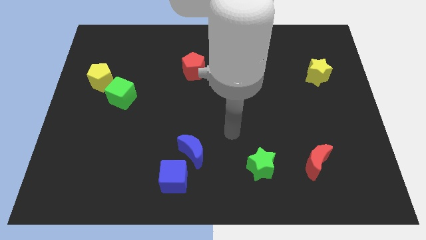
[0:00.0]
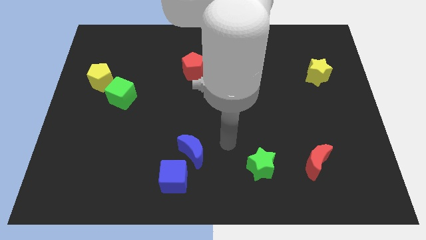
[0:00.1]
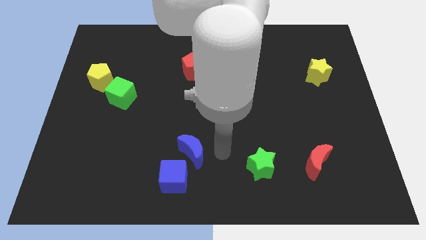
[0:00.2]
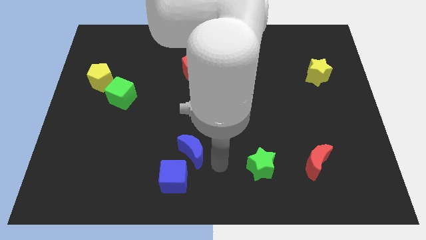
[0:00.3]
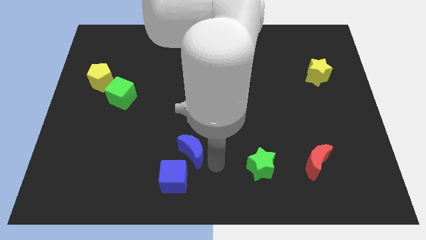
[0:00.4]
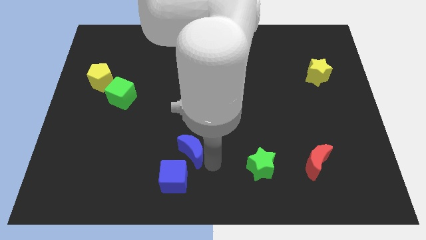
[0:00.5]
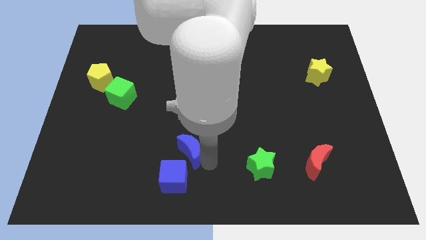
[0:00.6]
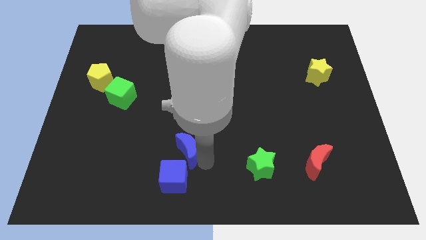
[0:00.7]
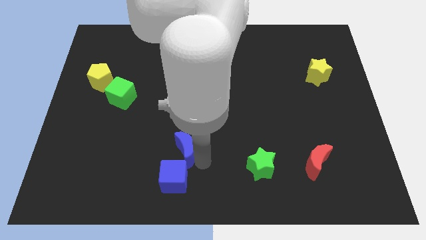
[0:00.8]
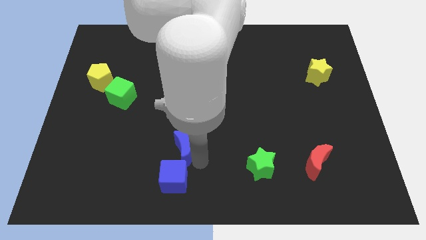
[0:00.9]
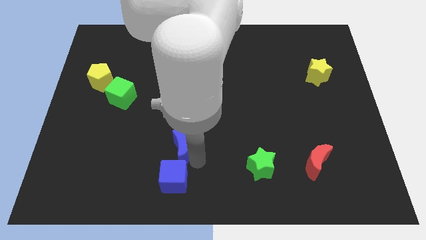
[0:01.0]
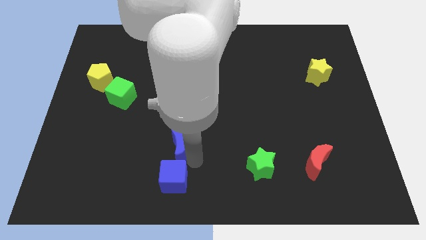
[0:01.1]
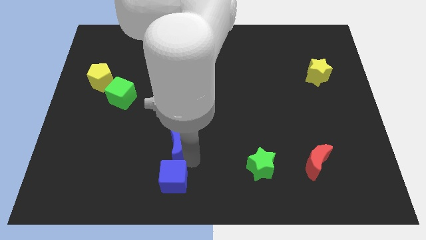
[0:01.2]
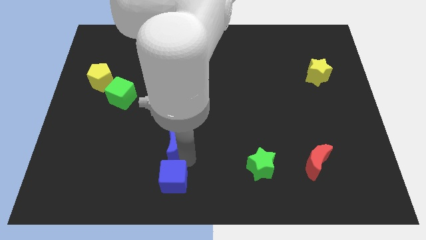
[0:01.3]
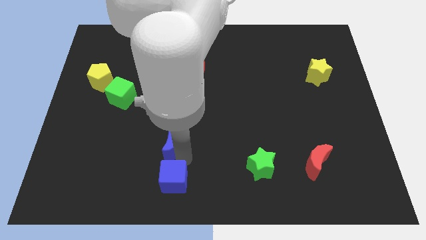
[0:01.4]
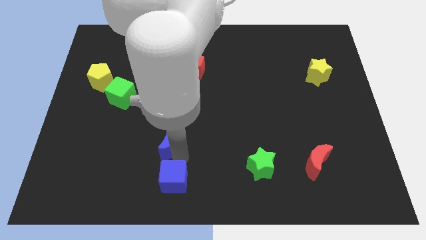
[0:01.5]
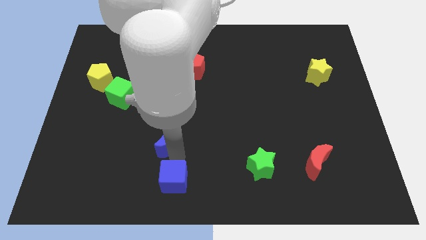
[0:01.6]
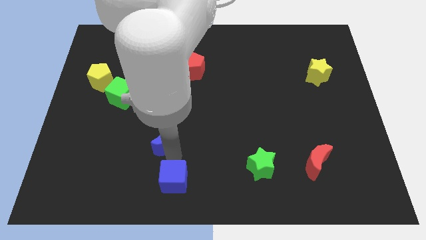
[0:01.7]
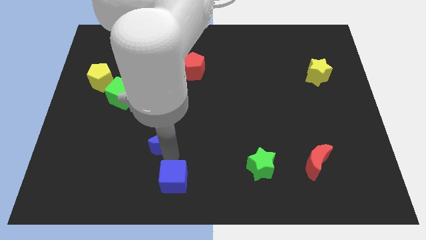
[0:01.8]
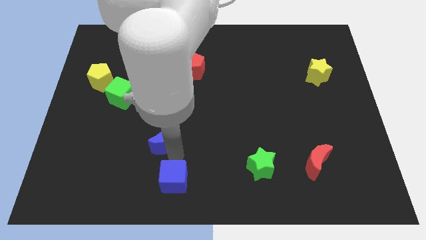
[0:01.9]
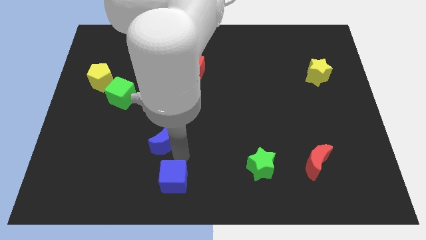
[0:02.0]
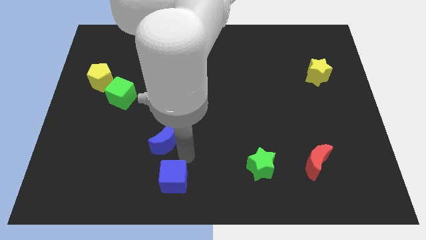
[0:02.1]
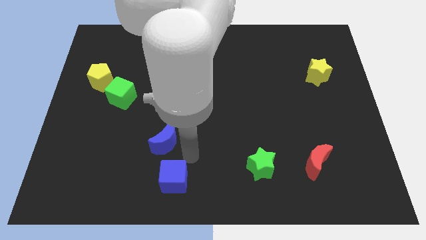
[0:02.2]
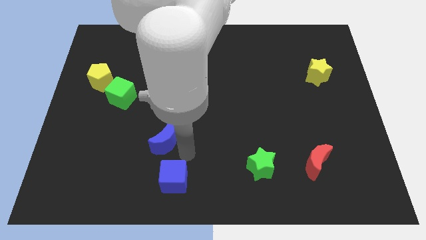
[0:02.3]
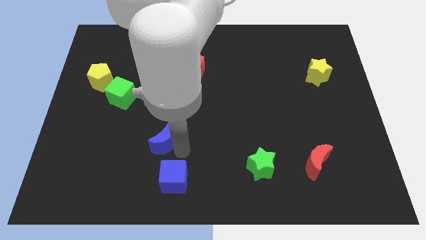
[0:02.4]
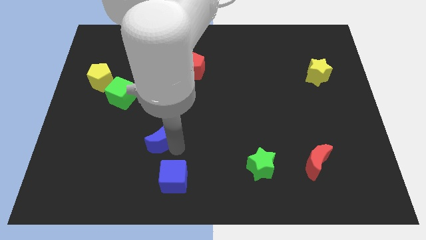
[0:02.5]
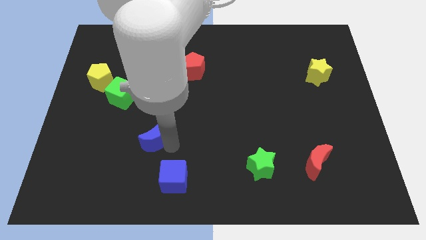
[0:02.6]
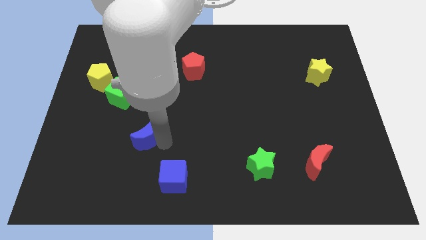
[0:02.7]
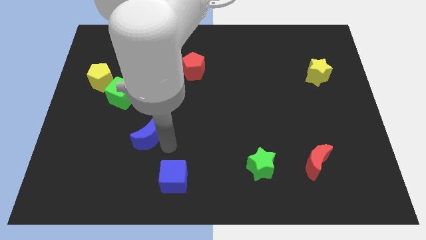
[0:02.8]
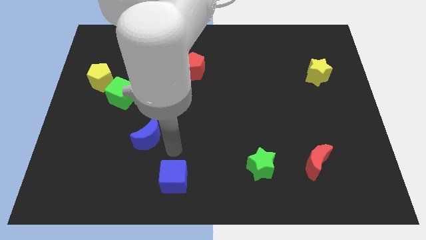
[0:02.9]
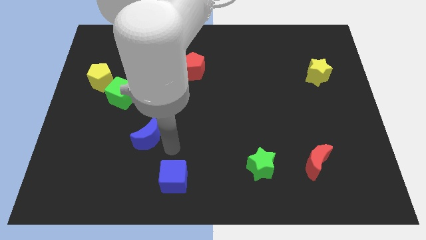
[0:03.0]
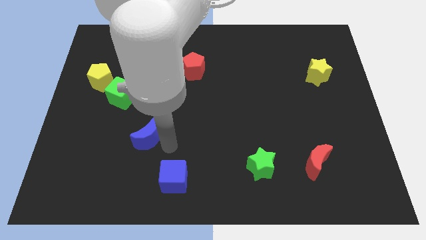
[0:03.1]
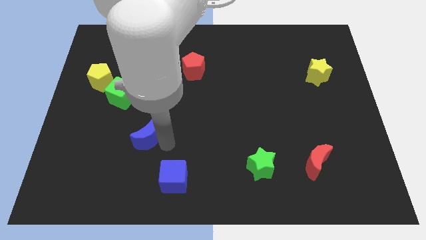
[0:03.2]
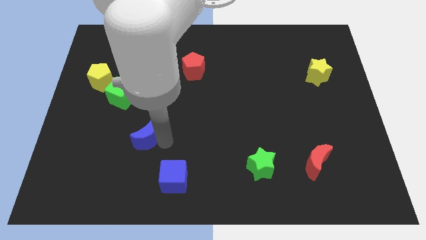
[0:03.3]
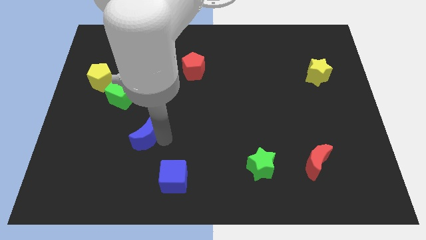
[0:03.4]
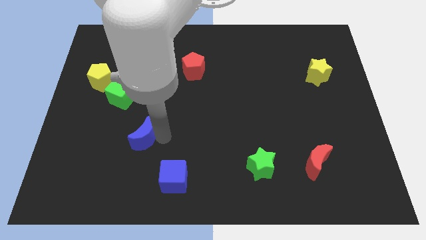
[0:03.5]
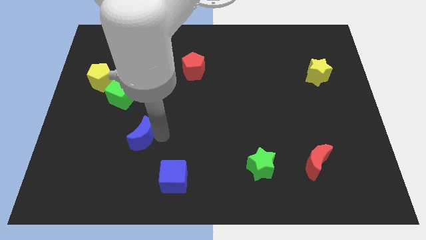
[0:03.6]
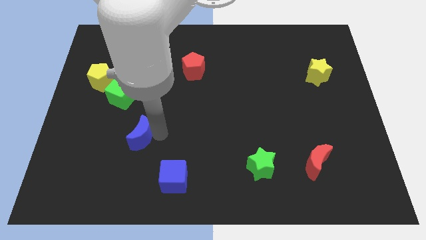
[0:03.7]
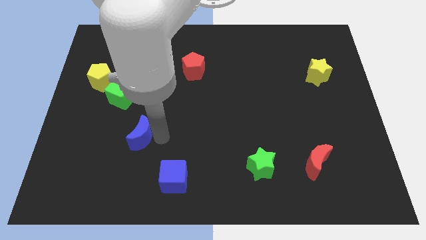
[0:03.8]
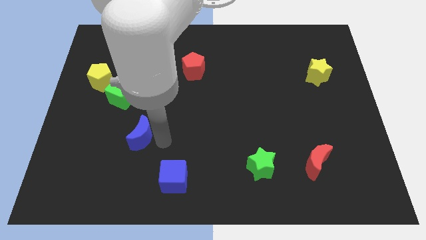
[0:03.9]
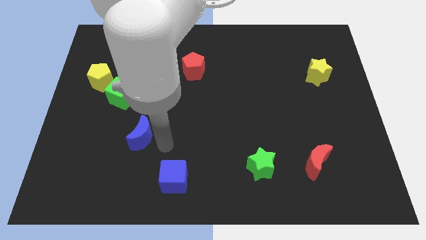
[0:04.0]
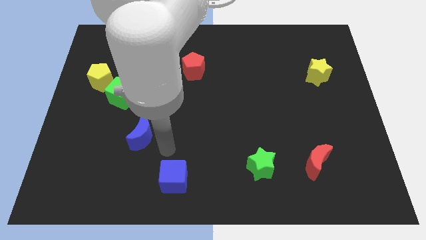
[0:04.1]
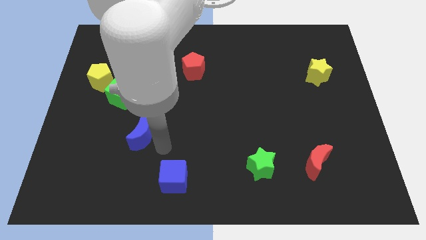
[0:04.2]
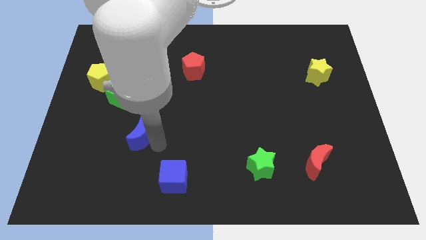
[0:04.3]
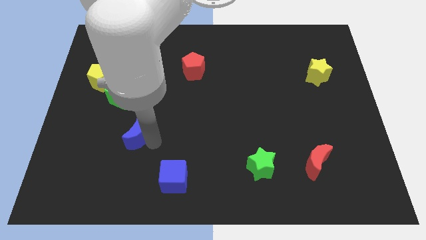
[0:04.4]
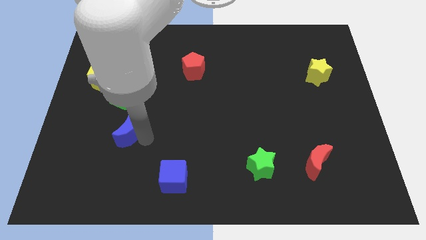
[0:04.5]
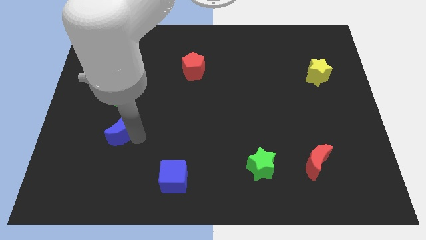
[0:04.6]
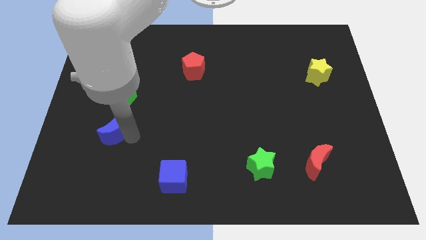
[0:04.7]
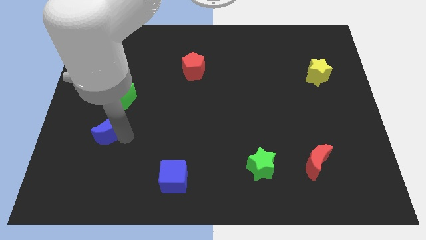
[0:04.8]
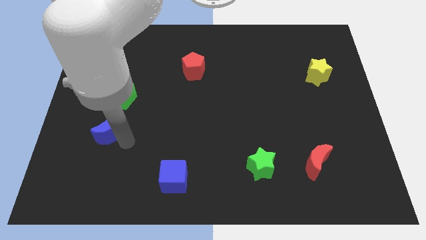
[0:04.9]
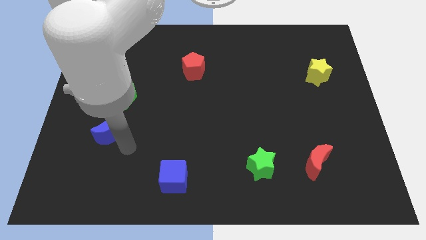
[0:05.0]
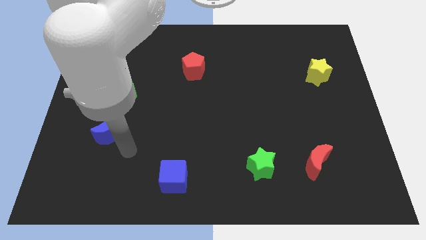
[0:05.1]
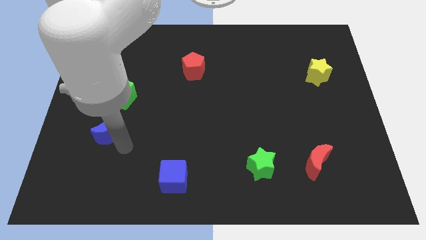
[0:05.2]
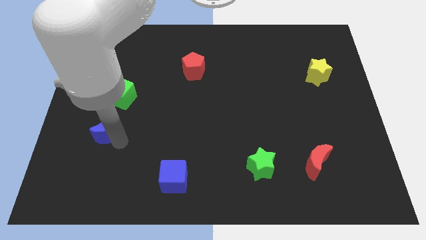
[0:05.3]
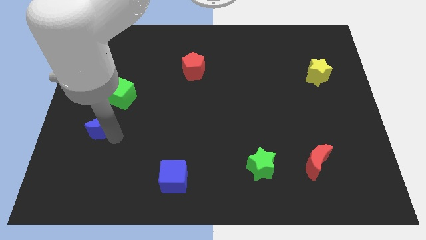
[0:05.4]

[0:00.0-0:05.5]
push the blue moon below the yellow pentagon
